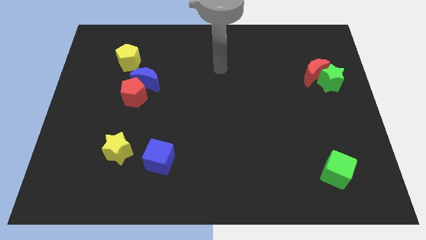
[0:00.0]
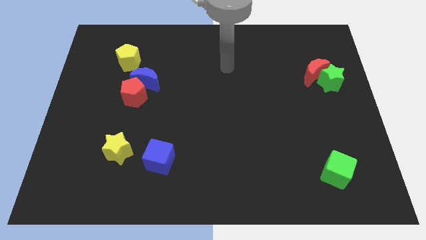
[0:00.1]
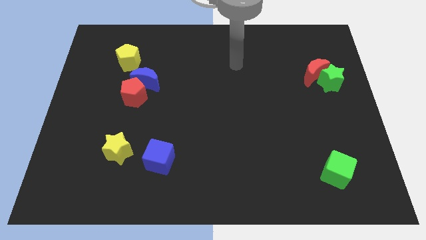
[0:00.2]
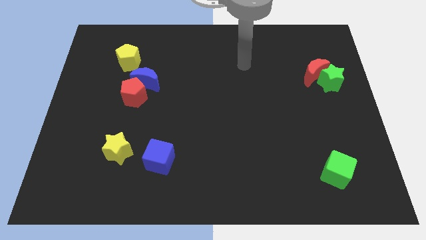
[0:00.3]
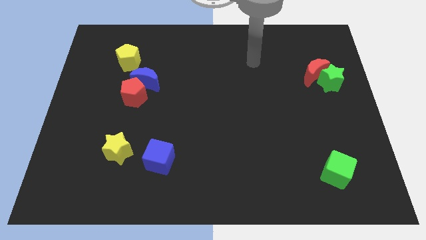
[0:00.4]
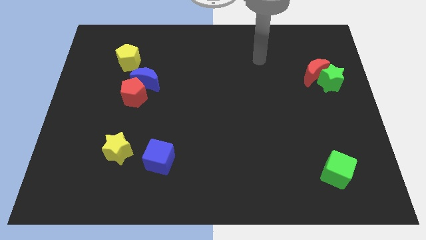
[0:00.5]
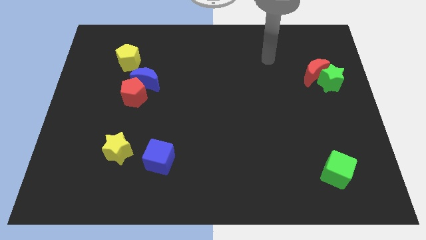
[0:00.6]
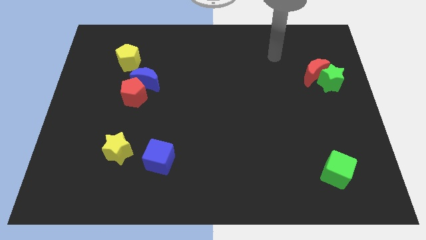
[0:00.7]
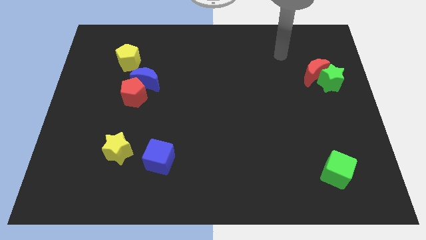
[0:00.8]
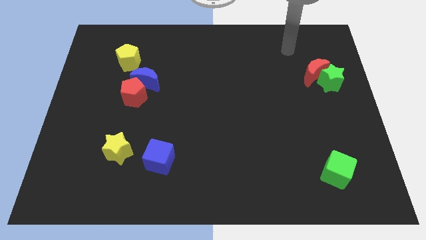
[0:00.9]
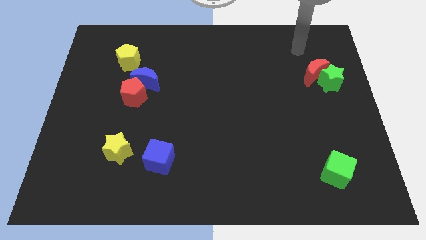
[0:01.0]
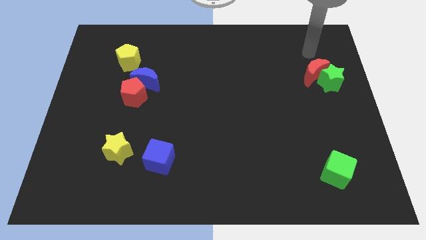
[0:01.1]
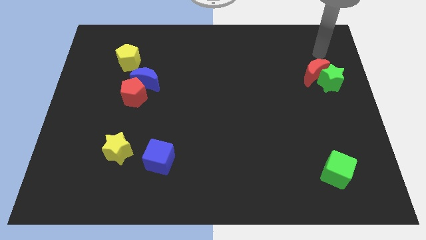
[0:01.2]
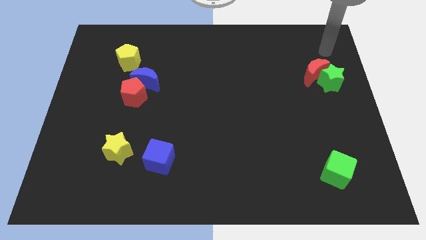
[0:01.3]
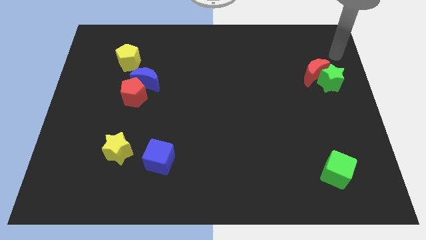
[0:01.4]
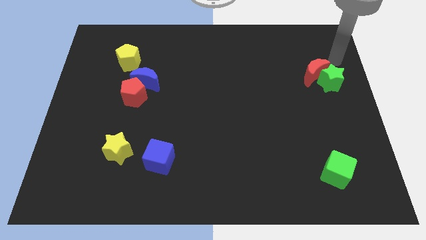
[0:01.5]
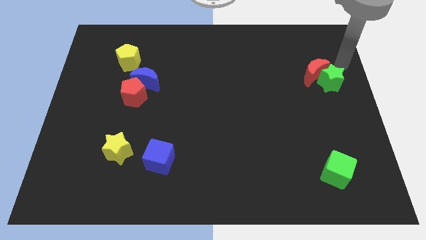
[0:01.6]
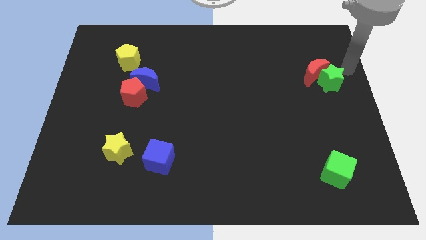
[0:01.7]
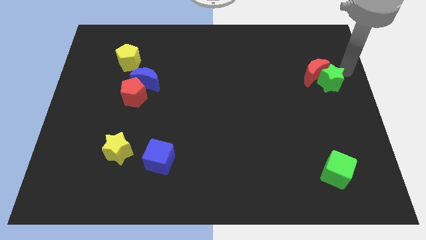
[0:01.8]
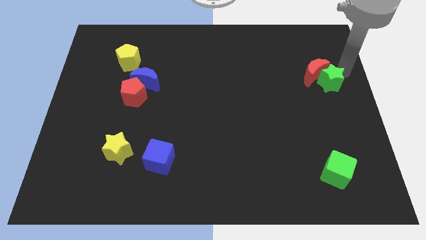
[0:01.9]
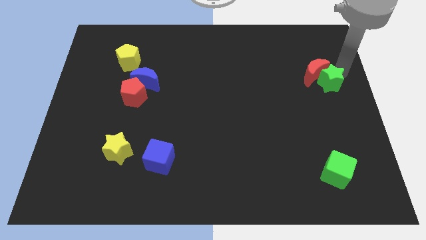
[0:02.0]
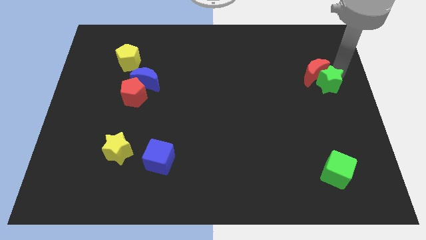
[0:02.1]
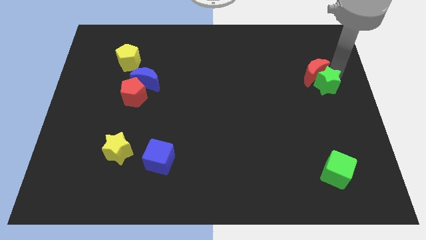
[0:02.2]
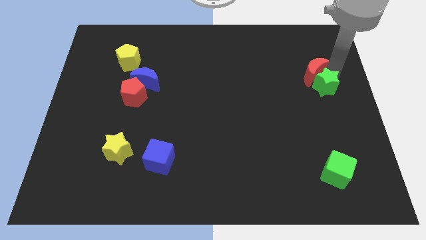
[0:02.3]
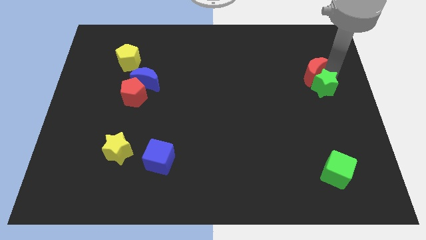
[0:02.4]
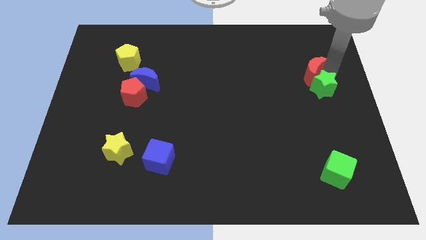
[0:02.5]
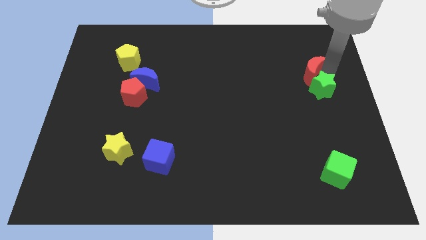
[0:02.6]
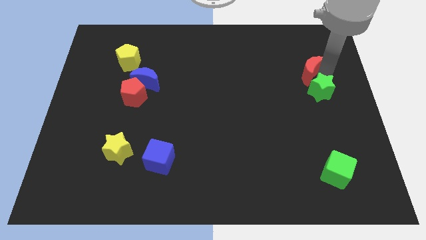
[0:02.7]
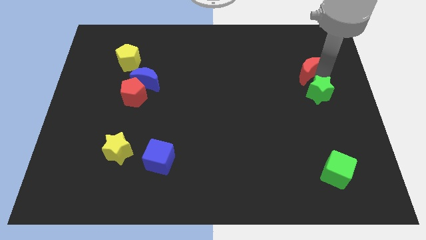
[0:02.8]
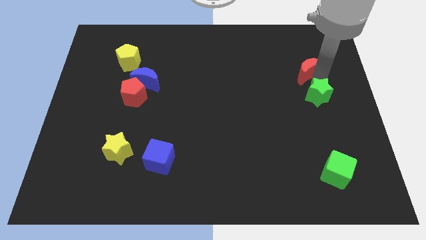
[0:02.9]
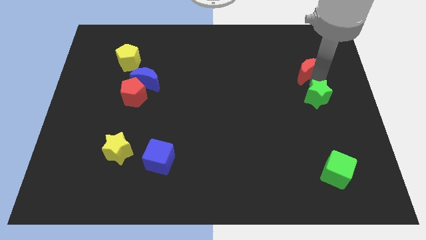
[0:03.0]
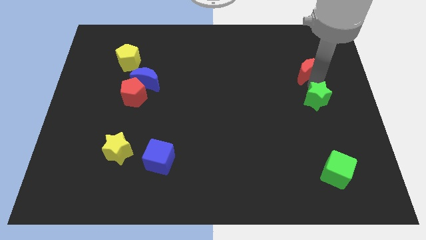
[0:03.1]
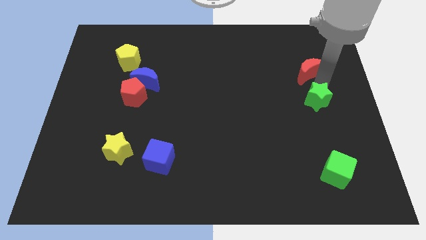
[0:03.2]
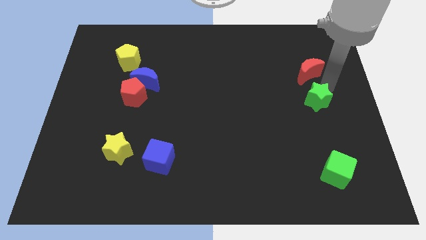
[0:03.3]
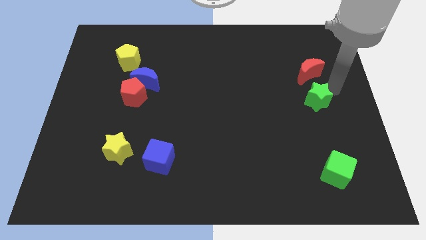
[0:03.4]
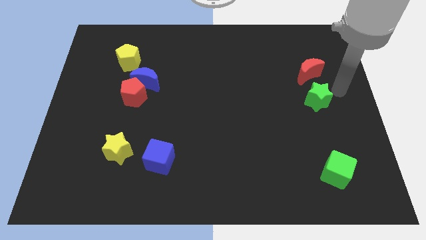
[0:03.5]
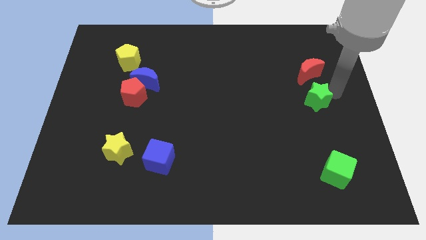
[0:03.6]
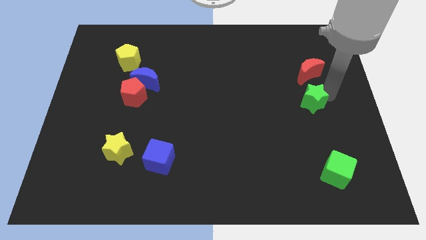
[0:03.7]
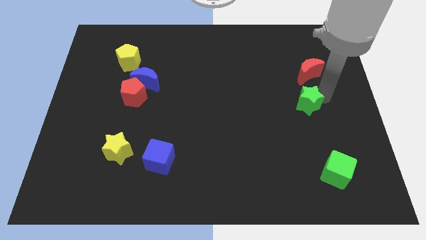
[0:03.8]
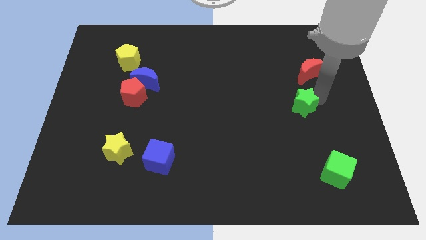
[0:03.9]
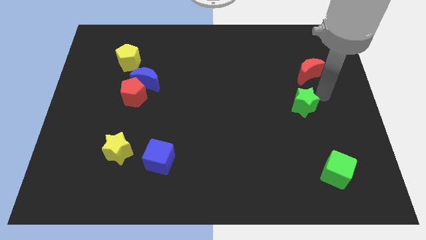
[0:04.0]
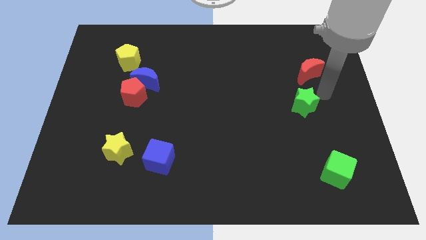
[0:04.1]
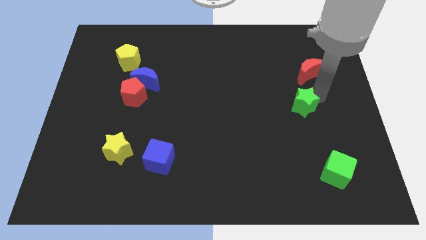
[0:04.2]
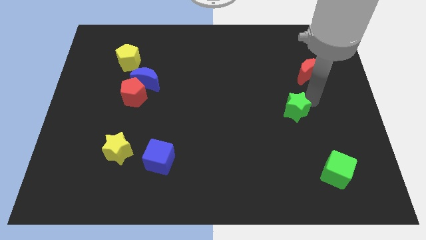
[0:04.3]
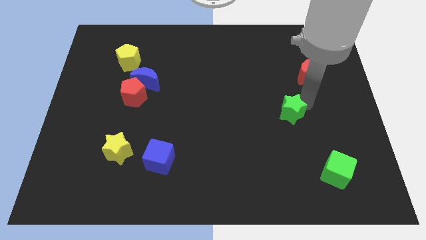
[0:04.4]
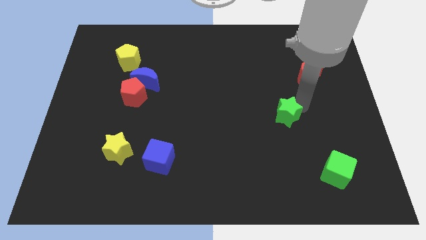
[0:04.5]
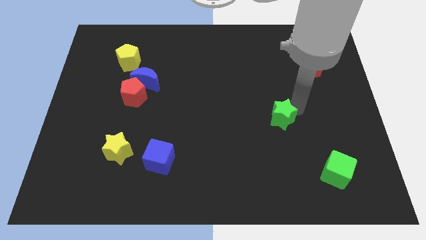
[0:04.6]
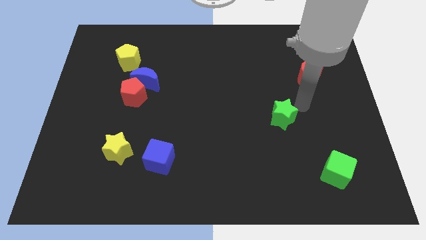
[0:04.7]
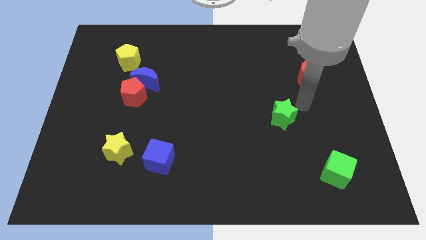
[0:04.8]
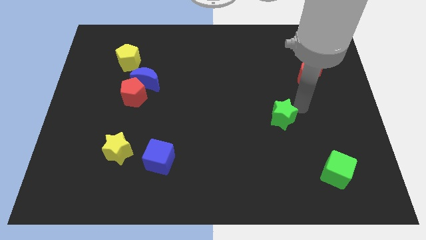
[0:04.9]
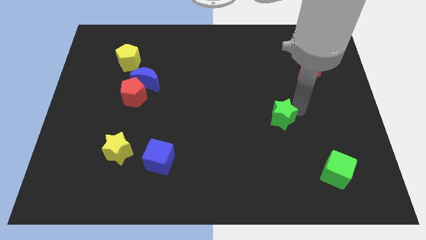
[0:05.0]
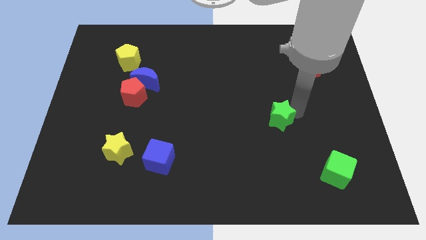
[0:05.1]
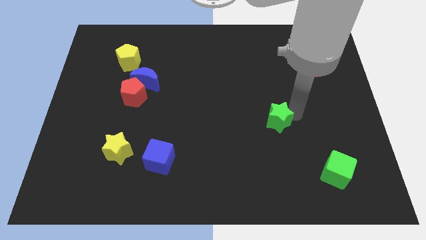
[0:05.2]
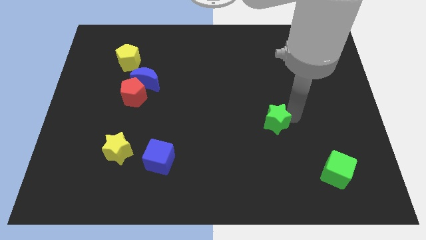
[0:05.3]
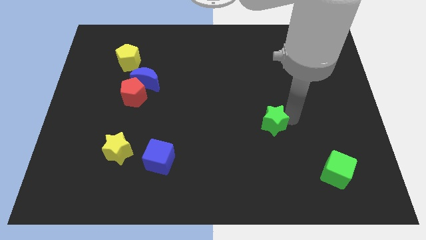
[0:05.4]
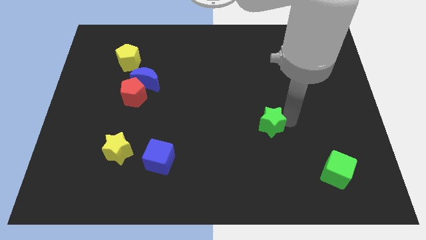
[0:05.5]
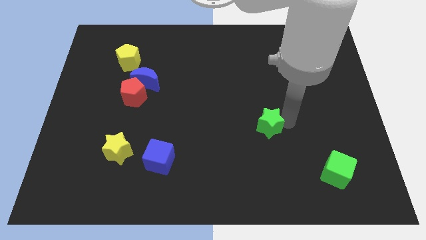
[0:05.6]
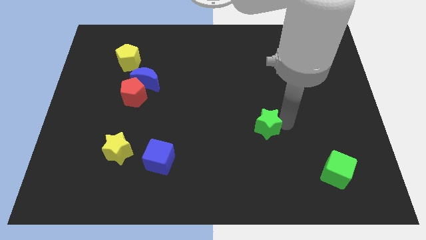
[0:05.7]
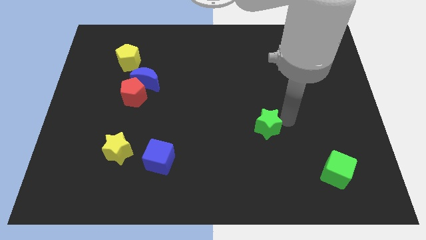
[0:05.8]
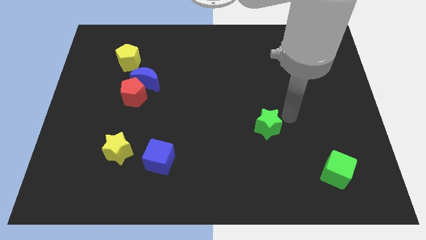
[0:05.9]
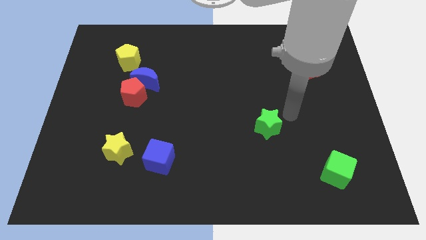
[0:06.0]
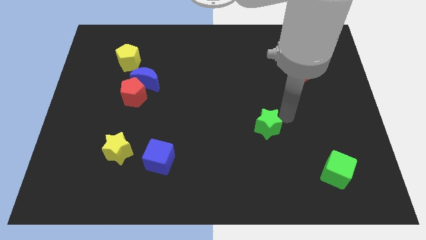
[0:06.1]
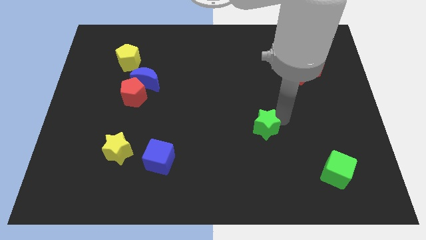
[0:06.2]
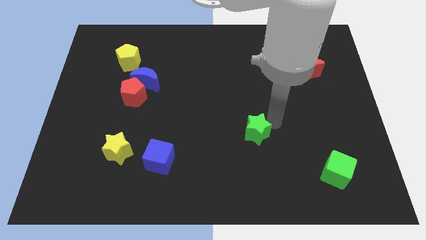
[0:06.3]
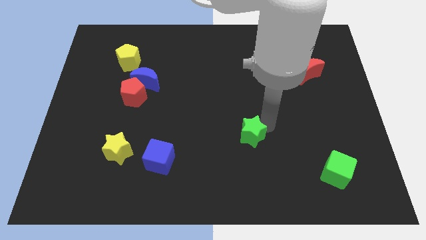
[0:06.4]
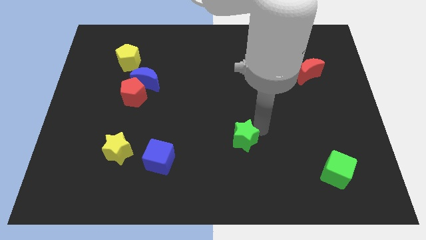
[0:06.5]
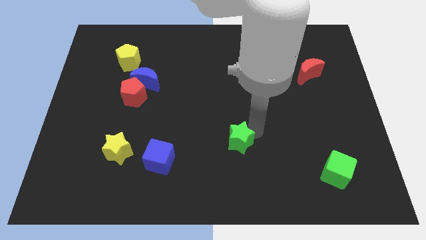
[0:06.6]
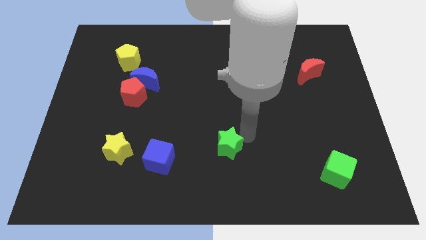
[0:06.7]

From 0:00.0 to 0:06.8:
slide the green star to the right side of the blue cube
